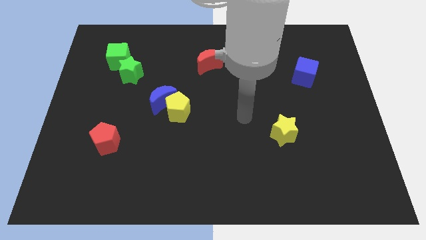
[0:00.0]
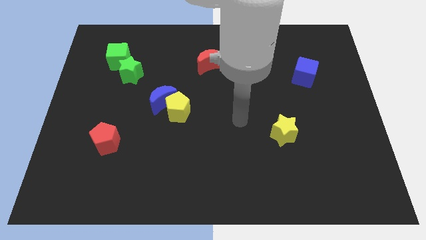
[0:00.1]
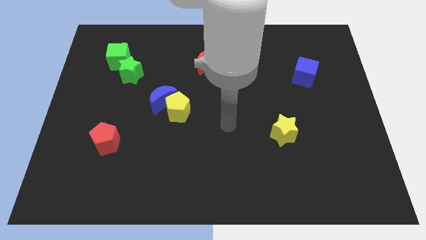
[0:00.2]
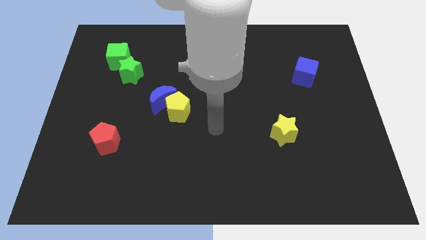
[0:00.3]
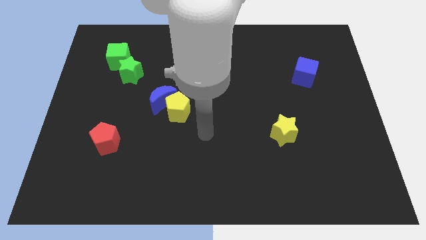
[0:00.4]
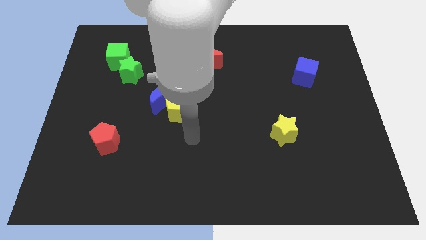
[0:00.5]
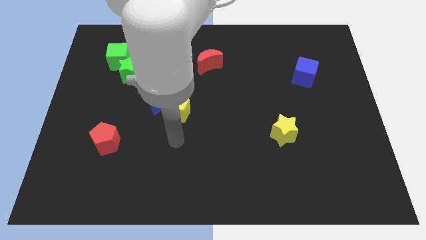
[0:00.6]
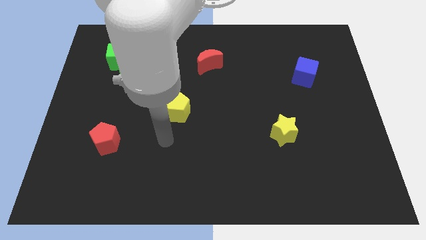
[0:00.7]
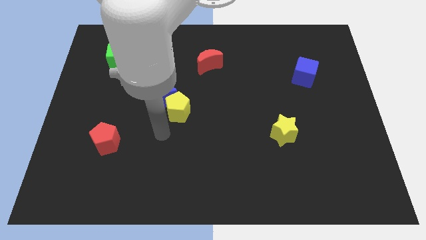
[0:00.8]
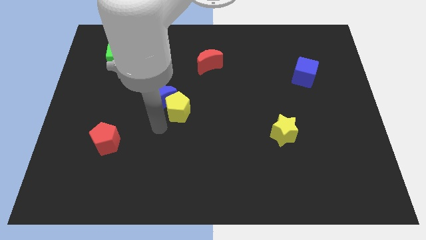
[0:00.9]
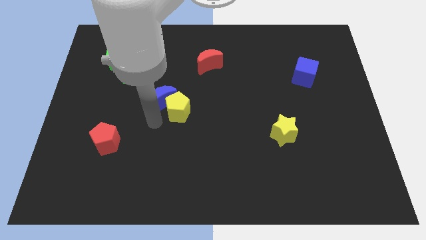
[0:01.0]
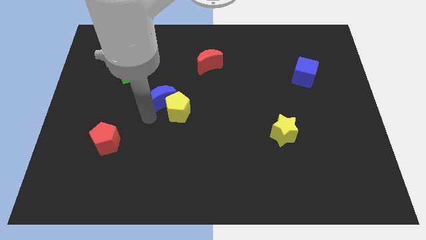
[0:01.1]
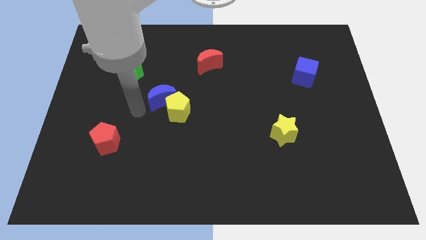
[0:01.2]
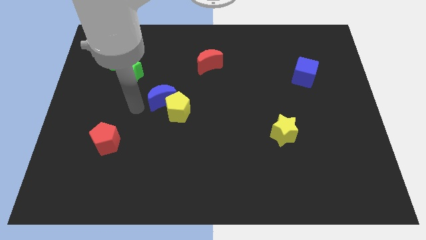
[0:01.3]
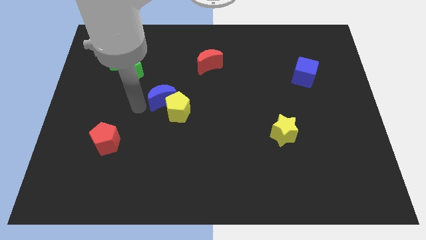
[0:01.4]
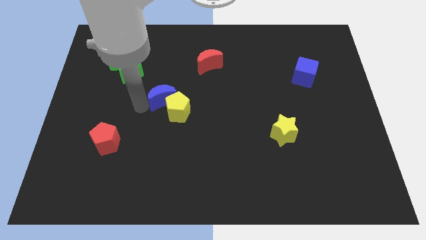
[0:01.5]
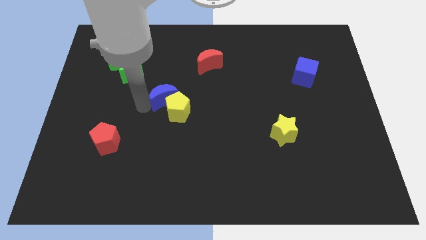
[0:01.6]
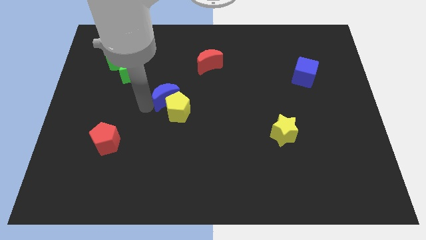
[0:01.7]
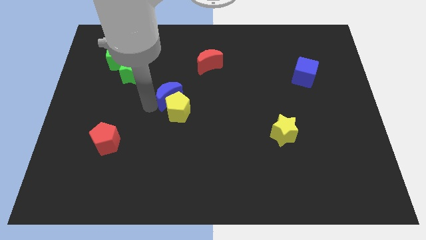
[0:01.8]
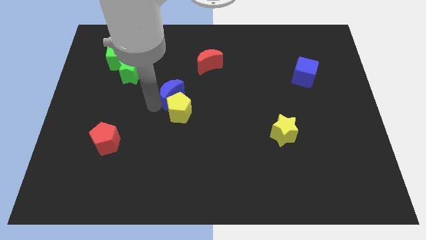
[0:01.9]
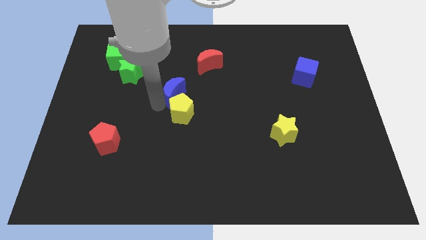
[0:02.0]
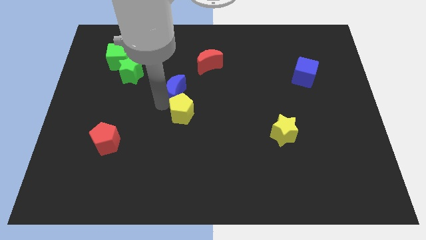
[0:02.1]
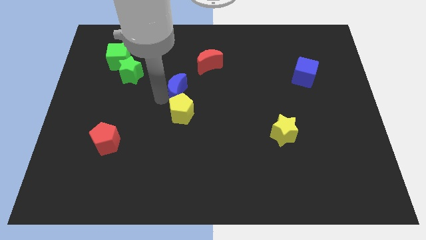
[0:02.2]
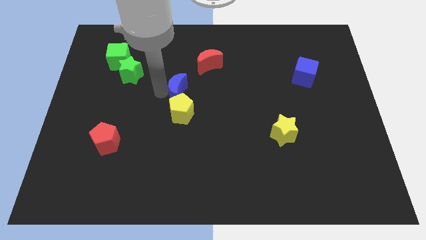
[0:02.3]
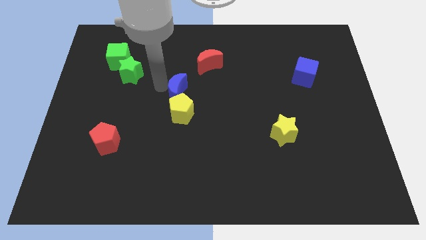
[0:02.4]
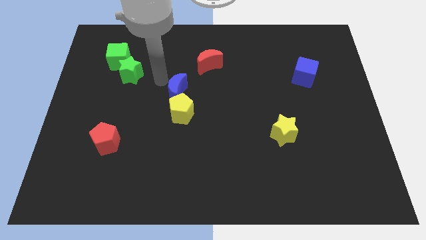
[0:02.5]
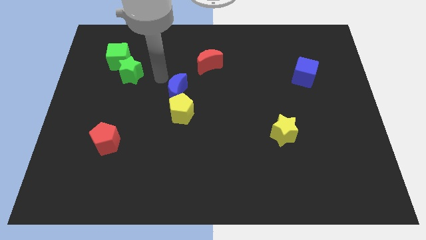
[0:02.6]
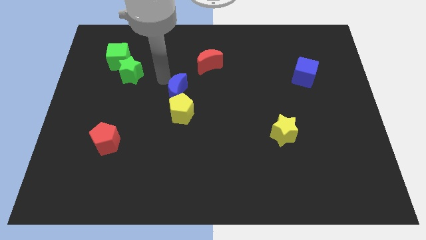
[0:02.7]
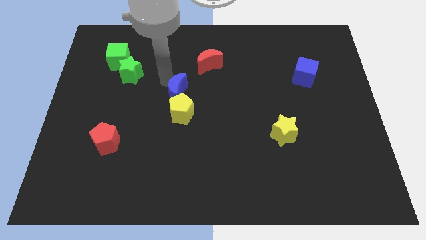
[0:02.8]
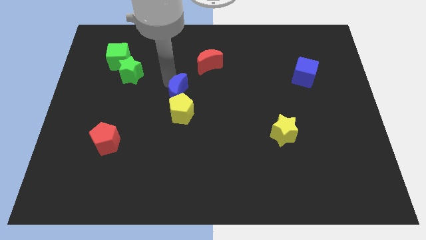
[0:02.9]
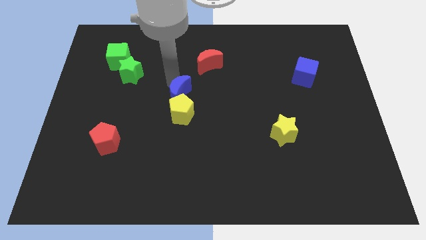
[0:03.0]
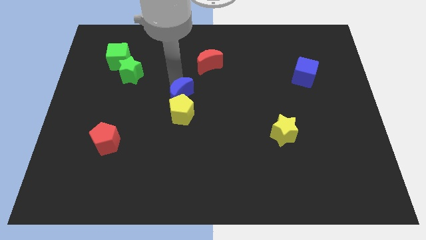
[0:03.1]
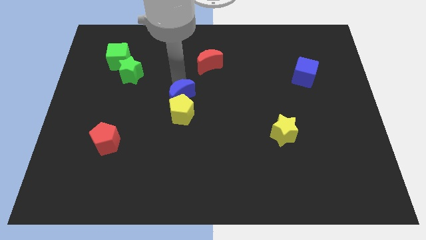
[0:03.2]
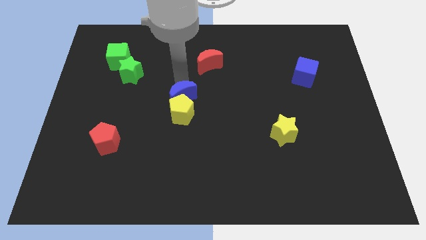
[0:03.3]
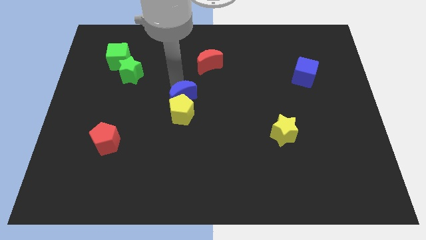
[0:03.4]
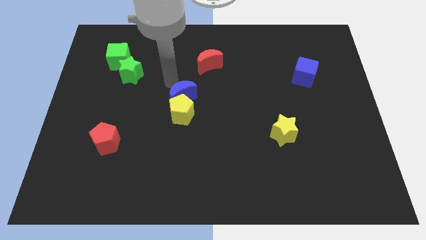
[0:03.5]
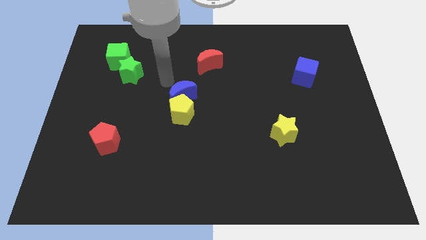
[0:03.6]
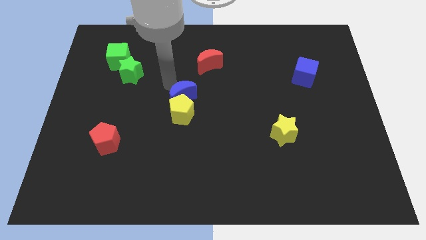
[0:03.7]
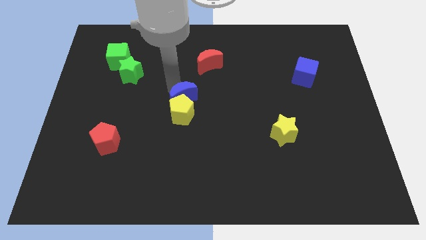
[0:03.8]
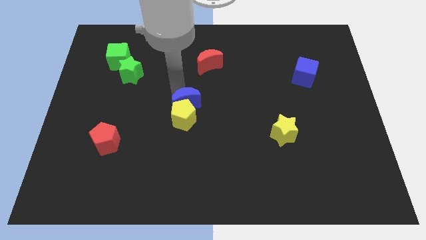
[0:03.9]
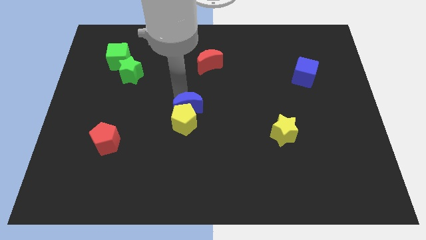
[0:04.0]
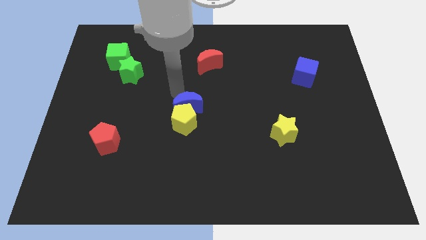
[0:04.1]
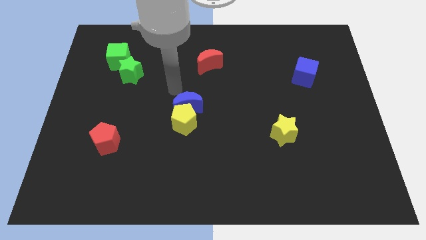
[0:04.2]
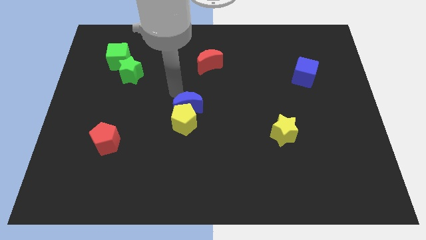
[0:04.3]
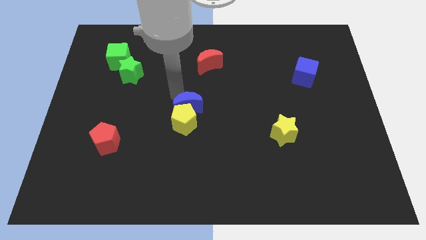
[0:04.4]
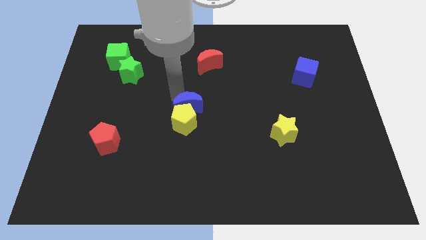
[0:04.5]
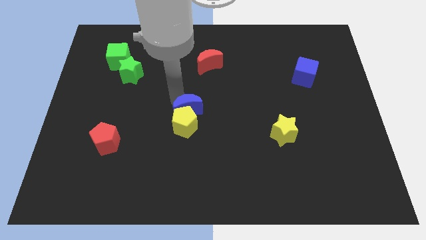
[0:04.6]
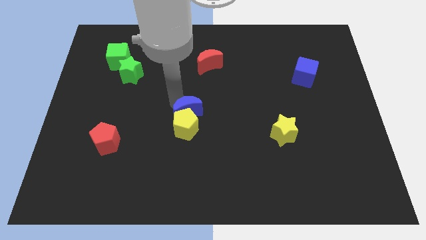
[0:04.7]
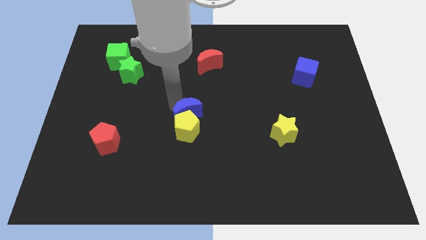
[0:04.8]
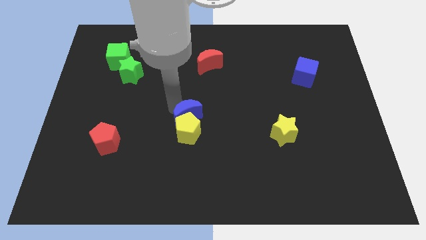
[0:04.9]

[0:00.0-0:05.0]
slide the blue moon down and then to the right a little

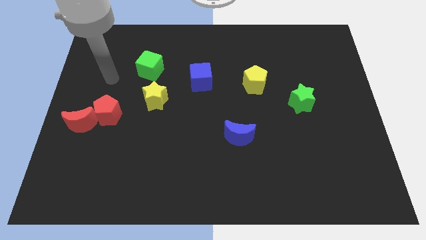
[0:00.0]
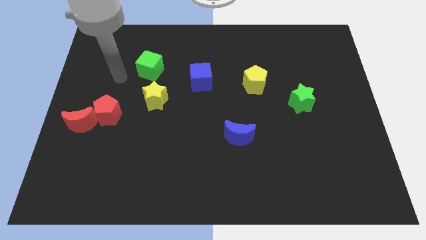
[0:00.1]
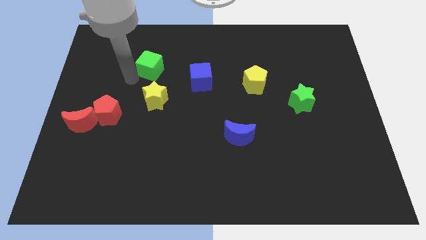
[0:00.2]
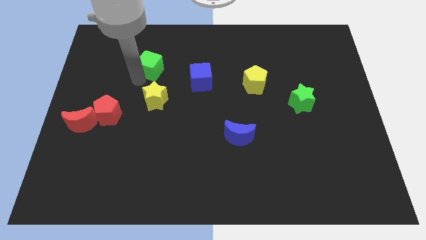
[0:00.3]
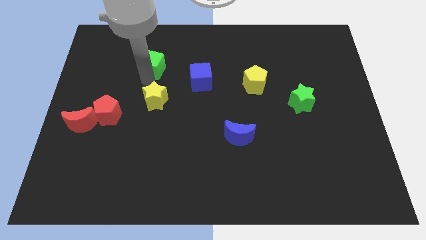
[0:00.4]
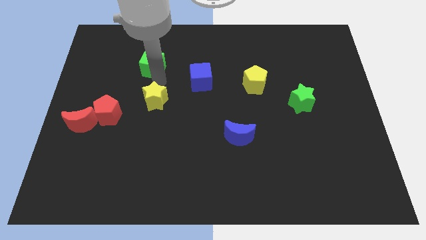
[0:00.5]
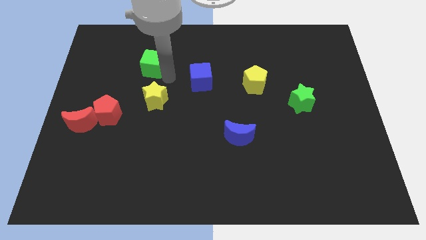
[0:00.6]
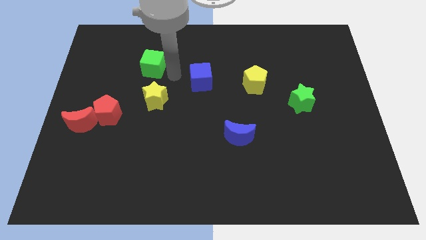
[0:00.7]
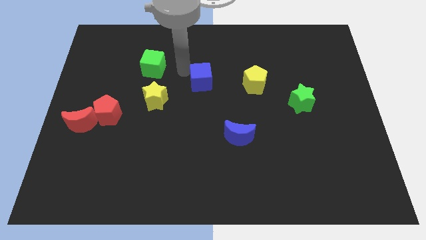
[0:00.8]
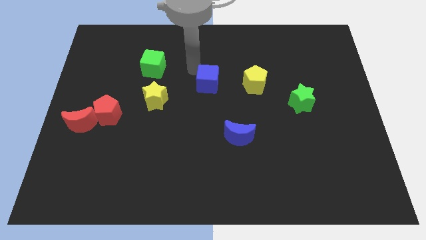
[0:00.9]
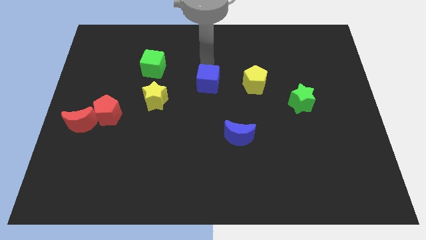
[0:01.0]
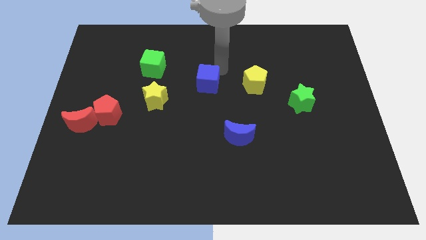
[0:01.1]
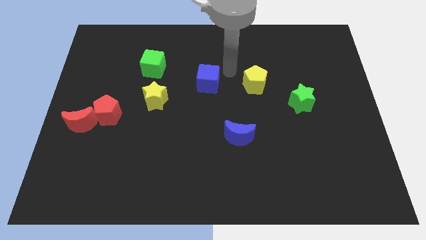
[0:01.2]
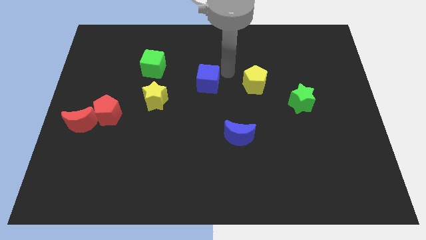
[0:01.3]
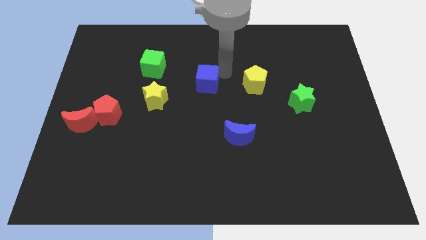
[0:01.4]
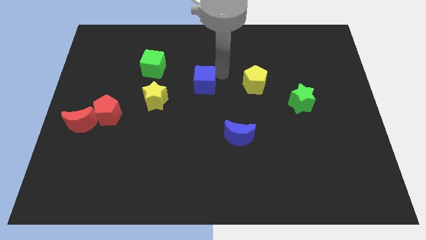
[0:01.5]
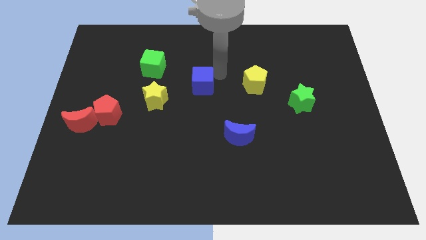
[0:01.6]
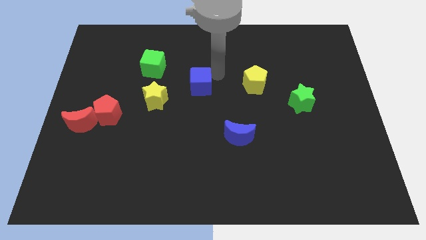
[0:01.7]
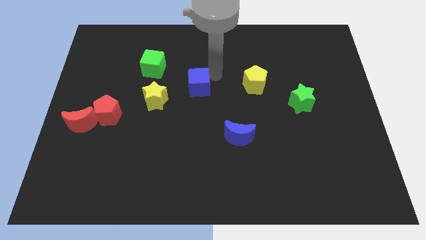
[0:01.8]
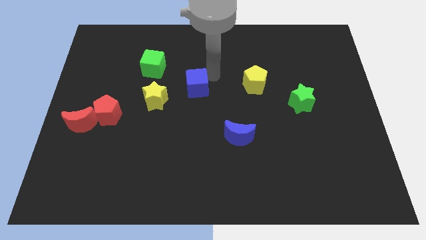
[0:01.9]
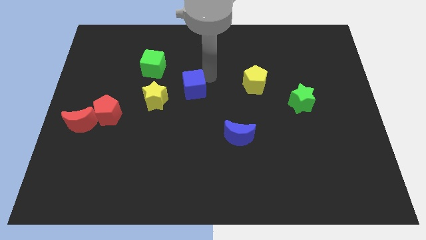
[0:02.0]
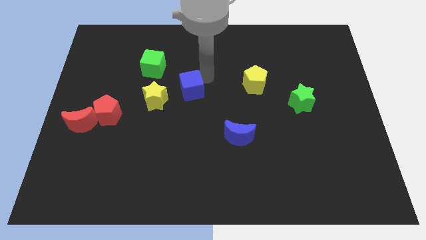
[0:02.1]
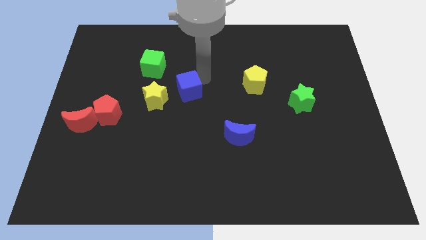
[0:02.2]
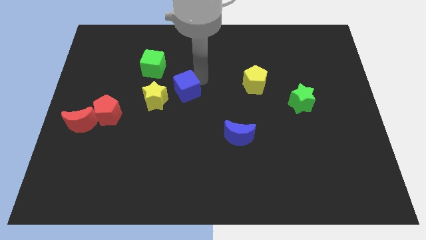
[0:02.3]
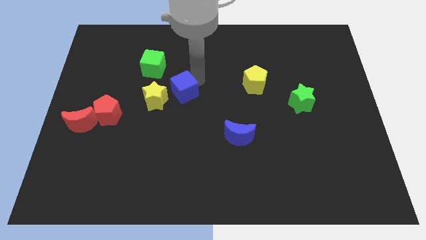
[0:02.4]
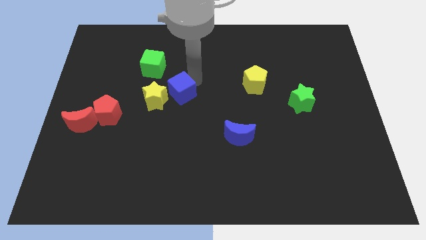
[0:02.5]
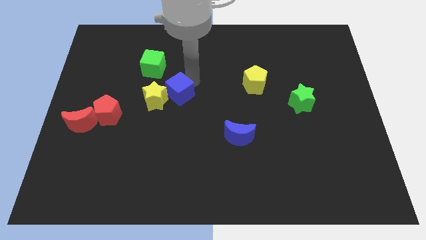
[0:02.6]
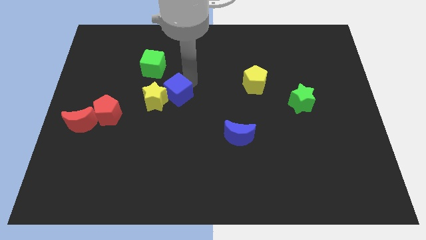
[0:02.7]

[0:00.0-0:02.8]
slide the blue cube a little diagonally downwards and left

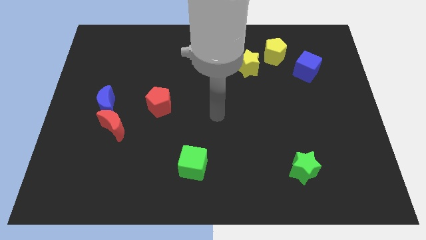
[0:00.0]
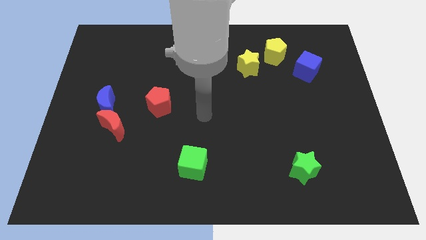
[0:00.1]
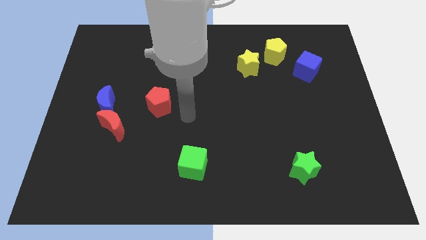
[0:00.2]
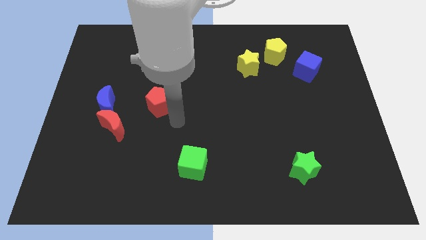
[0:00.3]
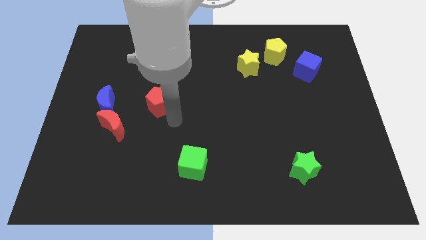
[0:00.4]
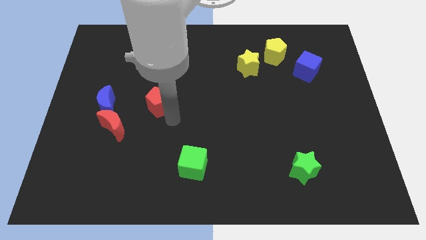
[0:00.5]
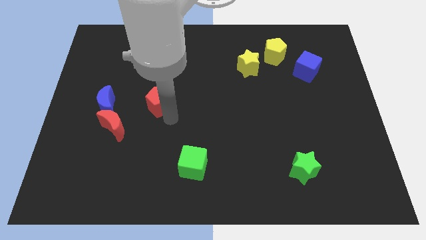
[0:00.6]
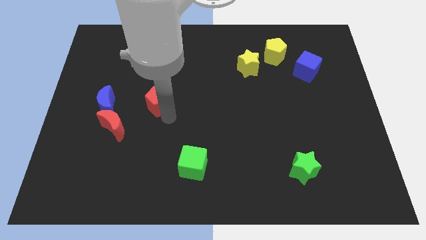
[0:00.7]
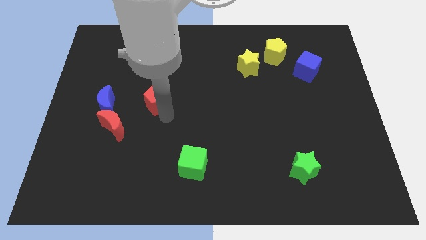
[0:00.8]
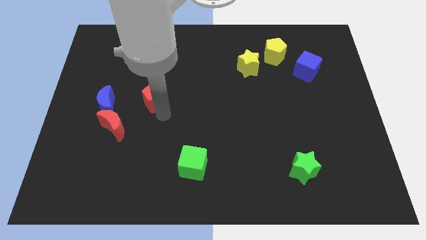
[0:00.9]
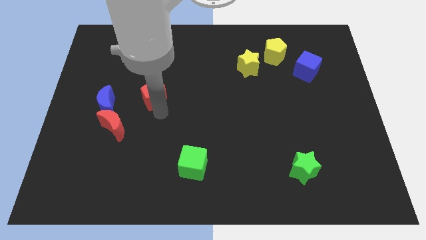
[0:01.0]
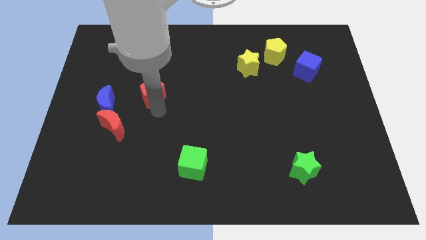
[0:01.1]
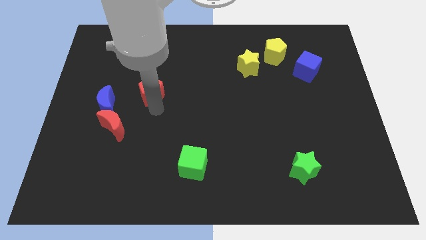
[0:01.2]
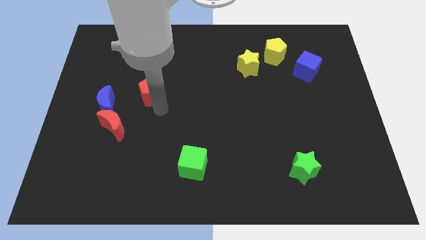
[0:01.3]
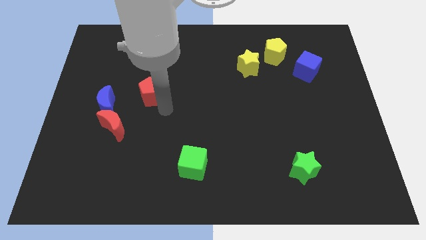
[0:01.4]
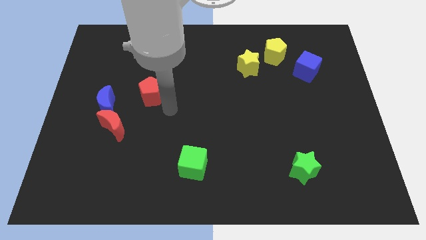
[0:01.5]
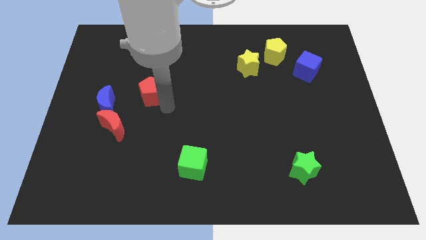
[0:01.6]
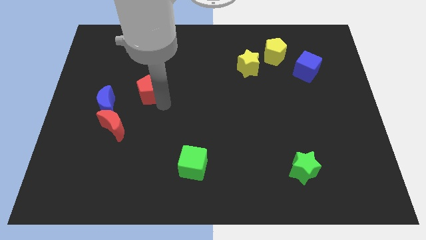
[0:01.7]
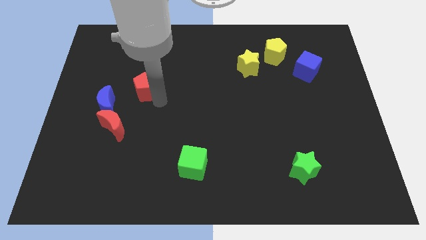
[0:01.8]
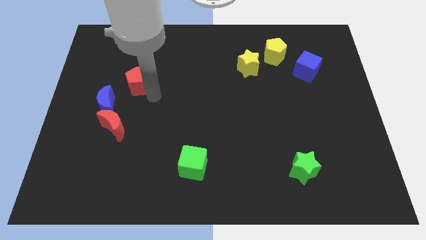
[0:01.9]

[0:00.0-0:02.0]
slide the red pentagon somewhat upwards and then to the left
